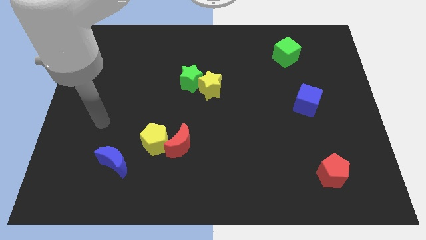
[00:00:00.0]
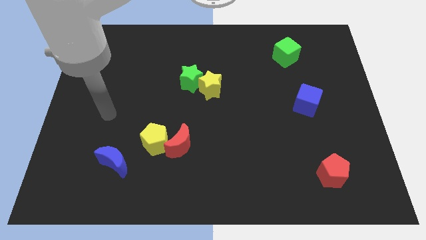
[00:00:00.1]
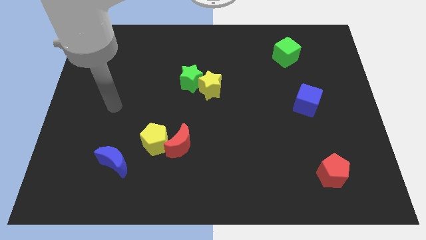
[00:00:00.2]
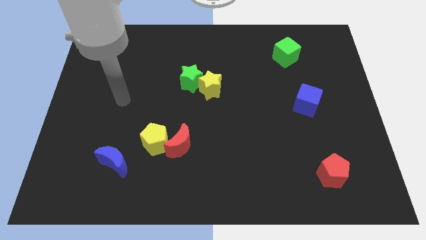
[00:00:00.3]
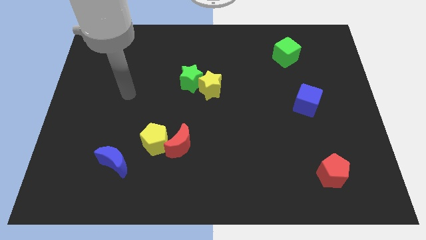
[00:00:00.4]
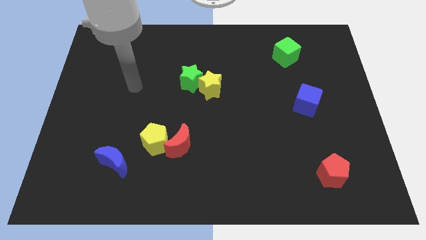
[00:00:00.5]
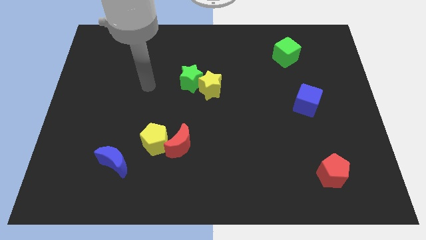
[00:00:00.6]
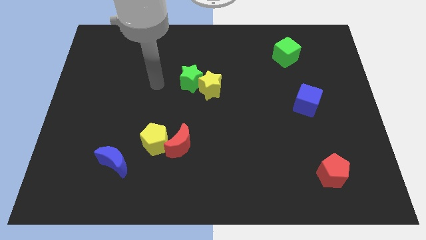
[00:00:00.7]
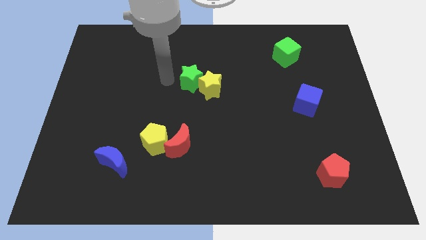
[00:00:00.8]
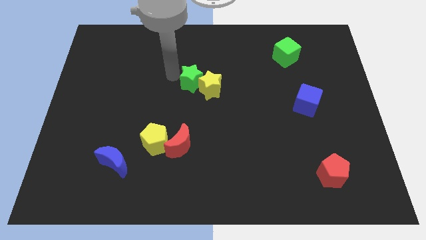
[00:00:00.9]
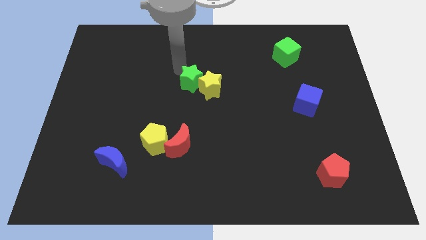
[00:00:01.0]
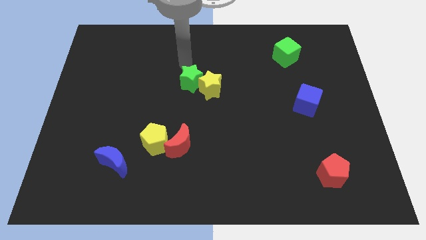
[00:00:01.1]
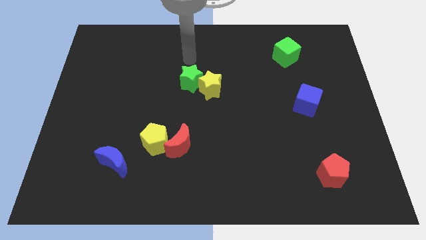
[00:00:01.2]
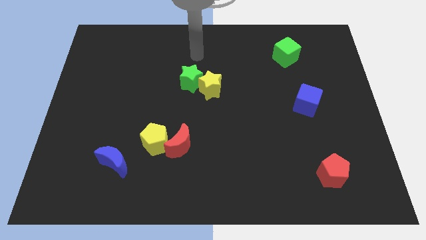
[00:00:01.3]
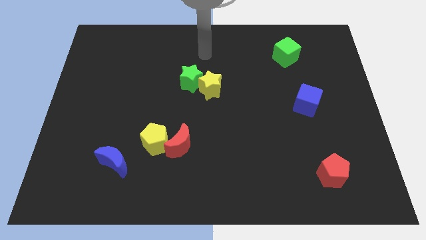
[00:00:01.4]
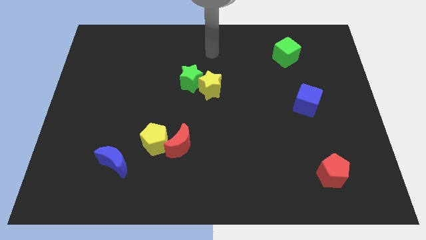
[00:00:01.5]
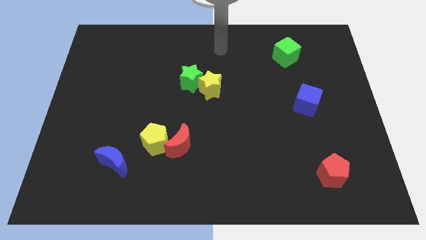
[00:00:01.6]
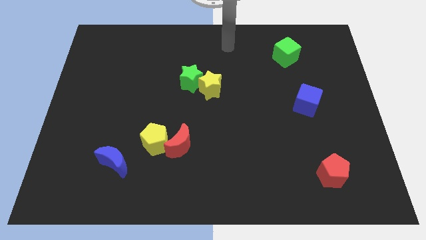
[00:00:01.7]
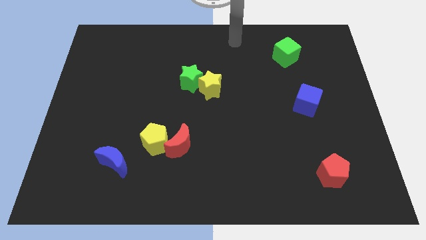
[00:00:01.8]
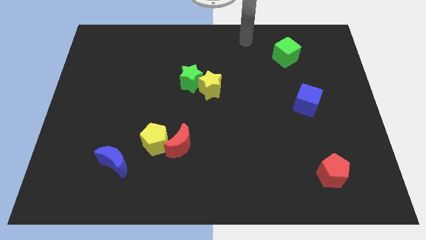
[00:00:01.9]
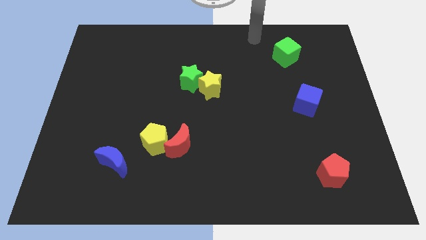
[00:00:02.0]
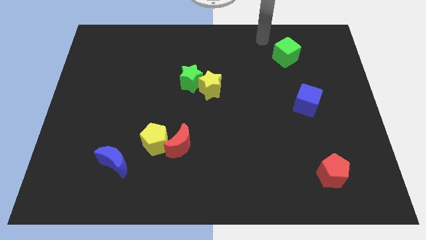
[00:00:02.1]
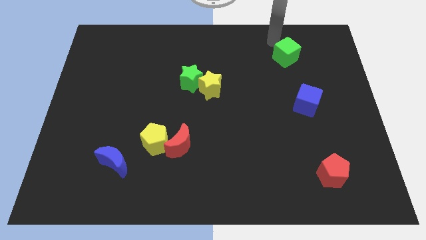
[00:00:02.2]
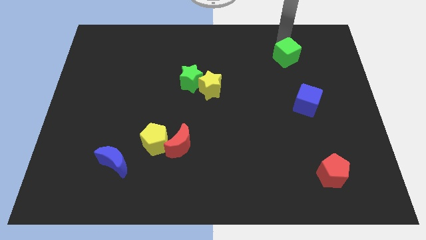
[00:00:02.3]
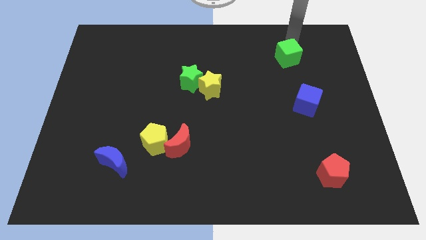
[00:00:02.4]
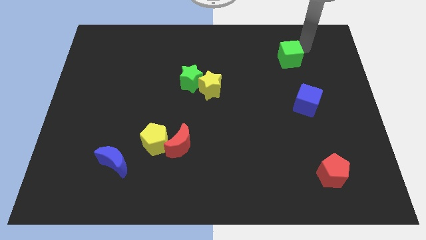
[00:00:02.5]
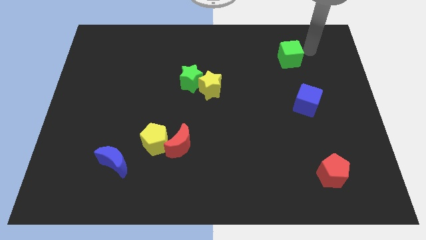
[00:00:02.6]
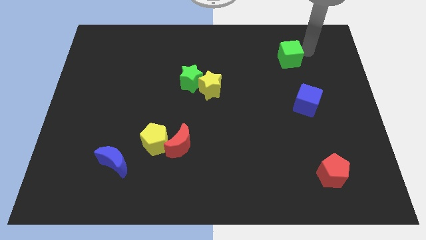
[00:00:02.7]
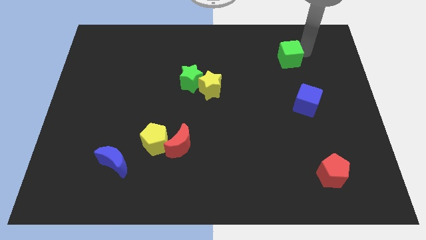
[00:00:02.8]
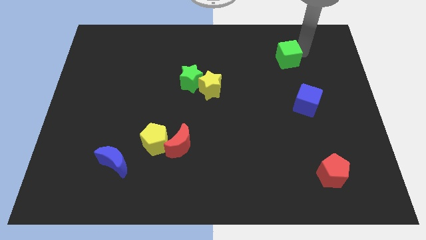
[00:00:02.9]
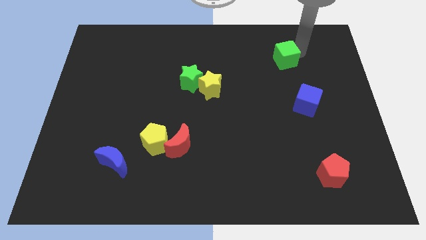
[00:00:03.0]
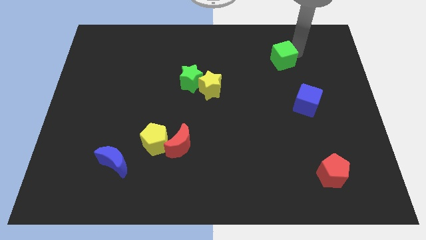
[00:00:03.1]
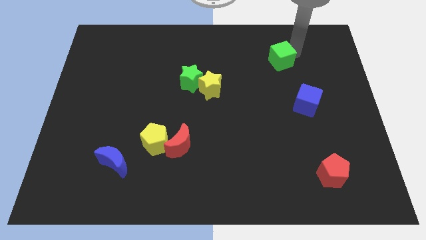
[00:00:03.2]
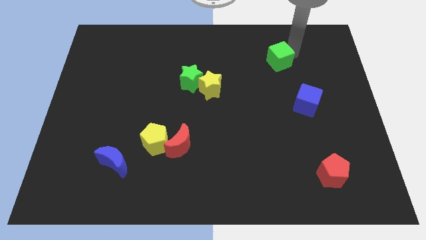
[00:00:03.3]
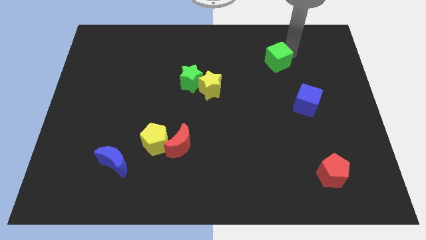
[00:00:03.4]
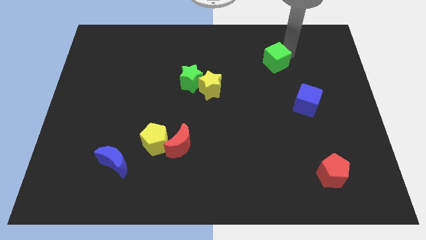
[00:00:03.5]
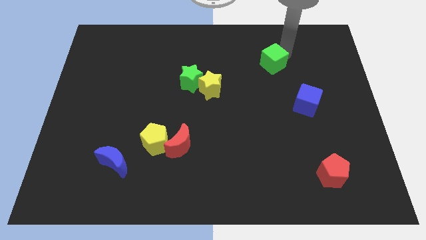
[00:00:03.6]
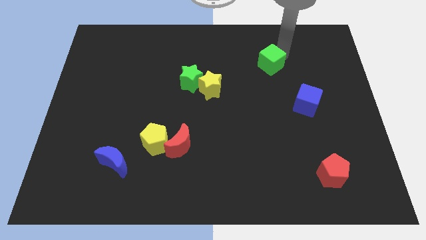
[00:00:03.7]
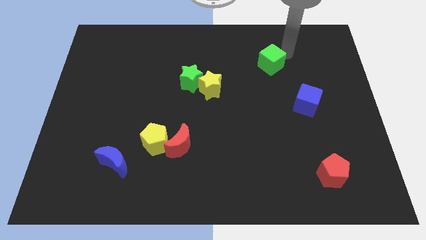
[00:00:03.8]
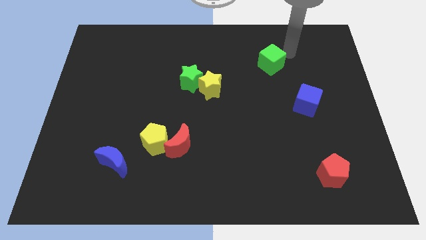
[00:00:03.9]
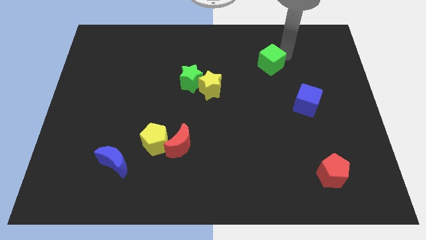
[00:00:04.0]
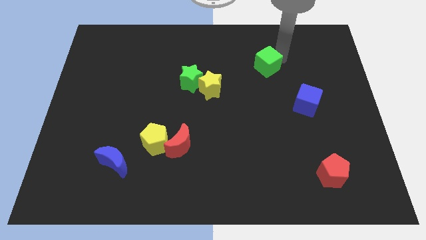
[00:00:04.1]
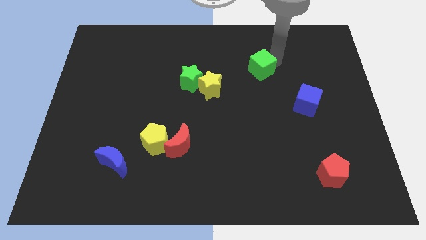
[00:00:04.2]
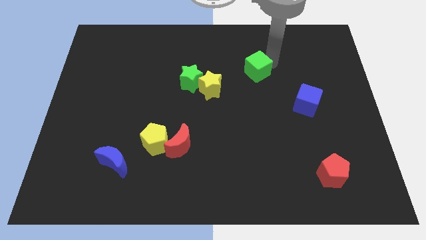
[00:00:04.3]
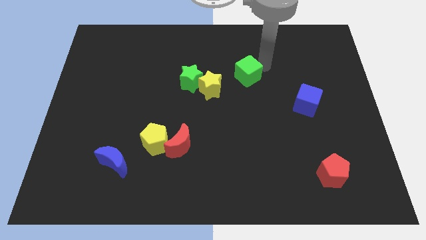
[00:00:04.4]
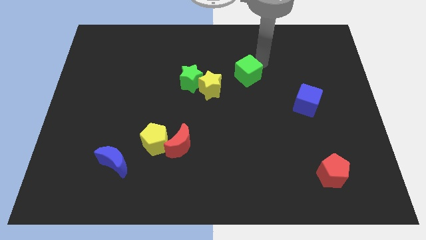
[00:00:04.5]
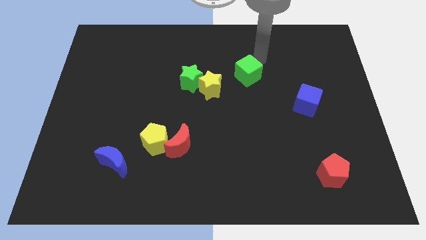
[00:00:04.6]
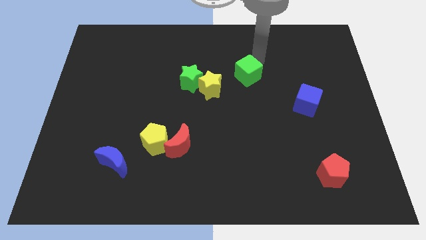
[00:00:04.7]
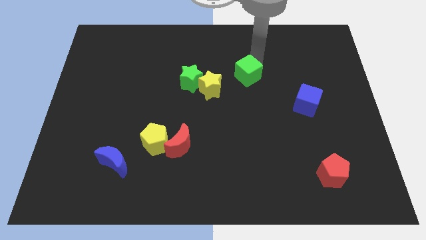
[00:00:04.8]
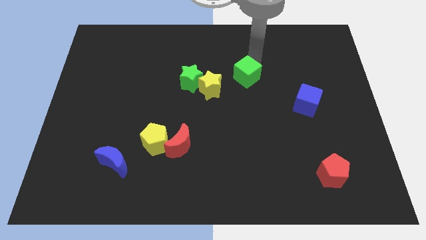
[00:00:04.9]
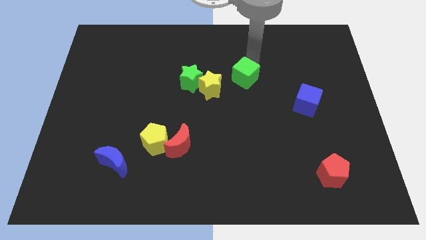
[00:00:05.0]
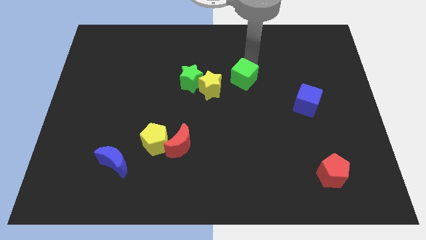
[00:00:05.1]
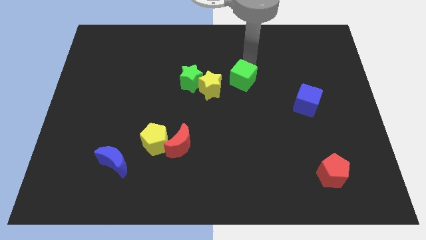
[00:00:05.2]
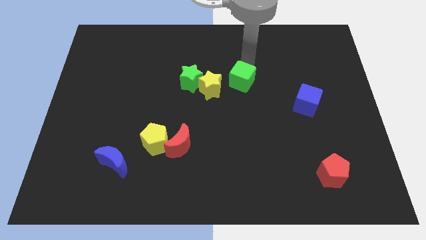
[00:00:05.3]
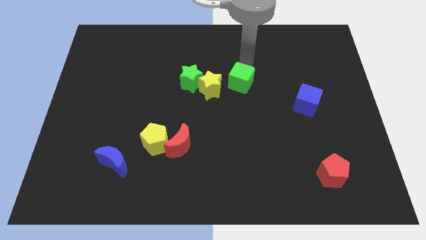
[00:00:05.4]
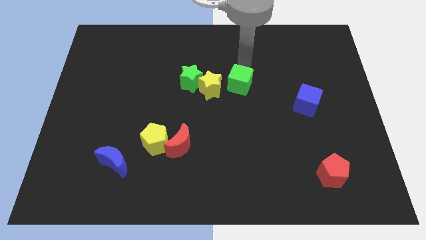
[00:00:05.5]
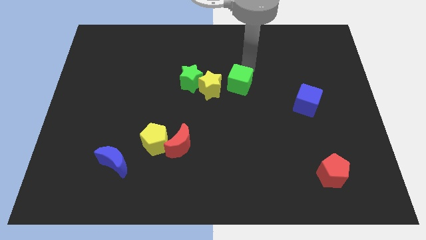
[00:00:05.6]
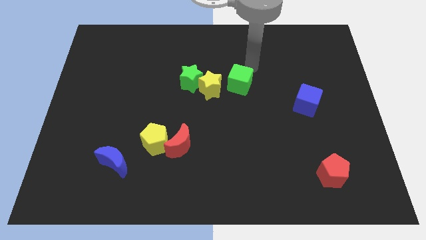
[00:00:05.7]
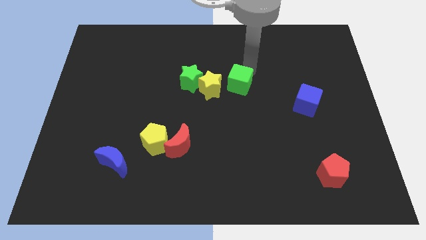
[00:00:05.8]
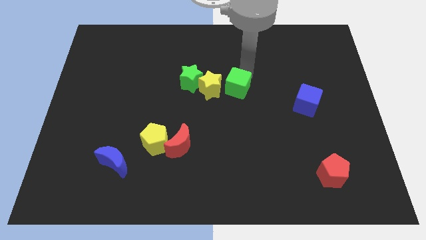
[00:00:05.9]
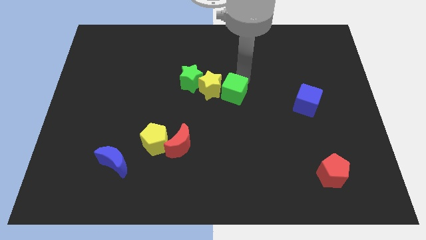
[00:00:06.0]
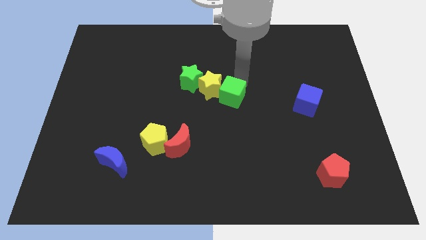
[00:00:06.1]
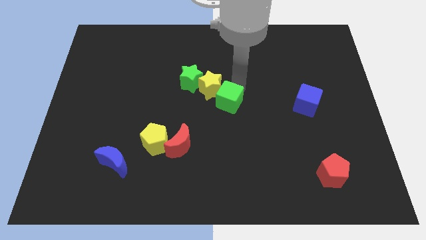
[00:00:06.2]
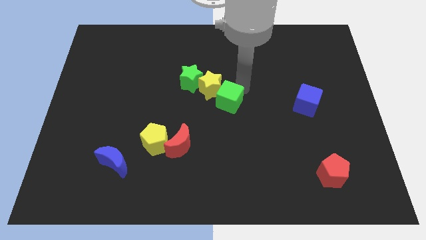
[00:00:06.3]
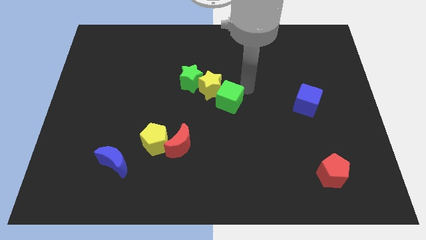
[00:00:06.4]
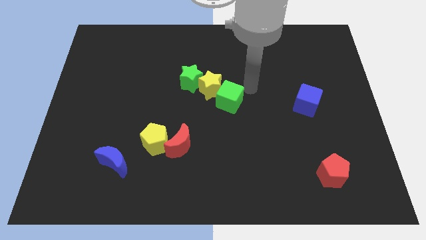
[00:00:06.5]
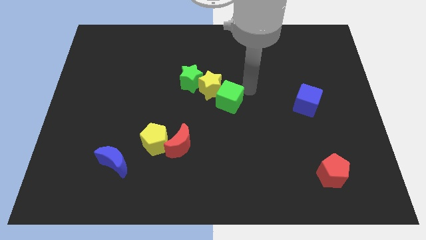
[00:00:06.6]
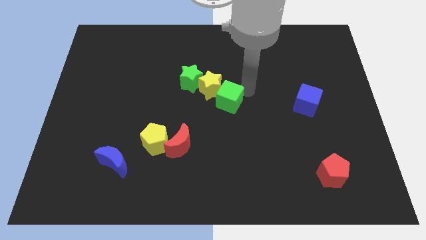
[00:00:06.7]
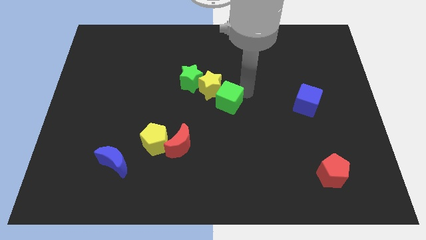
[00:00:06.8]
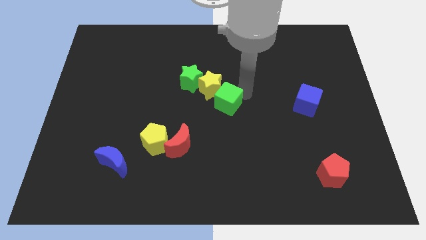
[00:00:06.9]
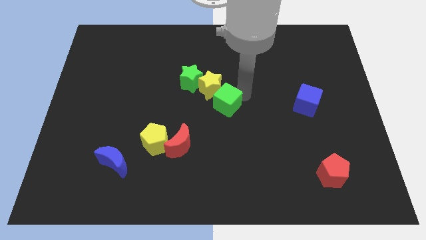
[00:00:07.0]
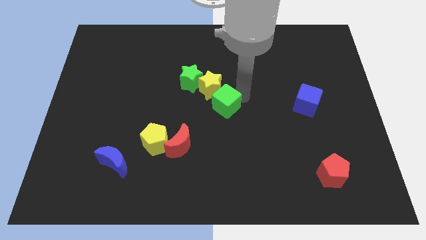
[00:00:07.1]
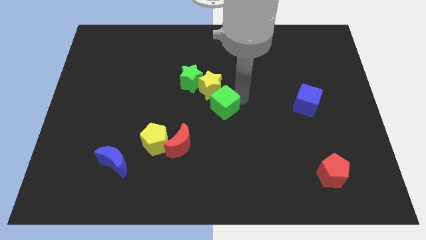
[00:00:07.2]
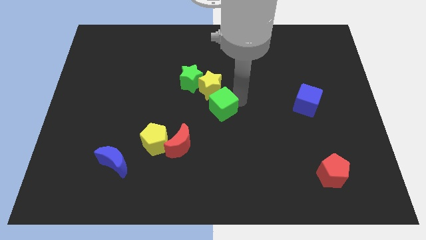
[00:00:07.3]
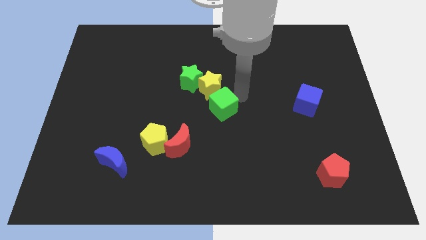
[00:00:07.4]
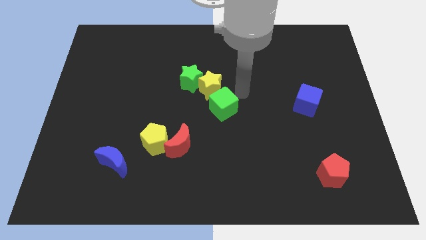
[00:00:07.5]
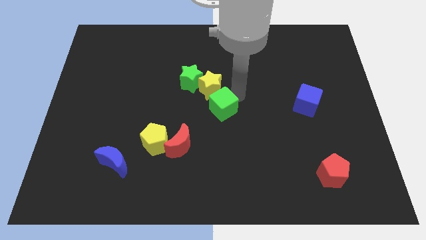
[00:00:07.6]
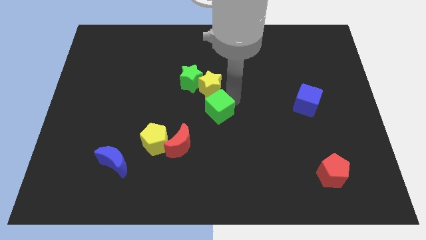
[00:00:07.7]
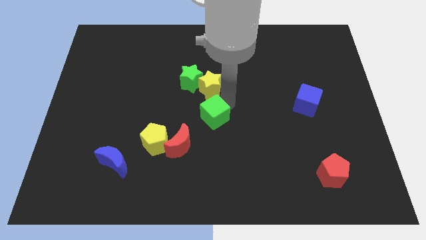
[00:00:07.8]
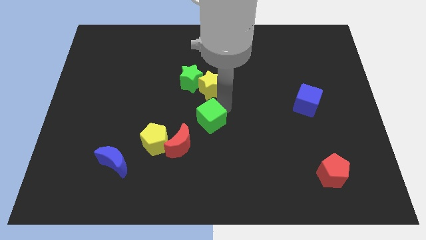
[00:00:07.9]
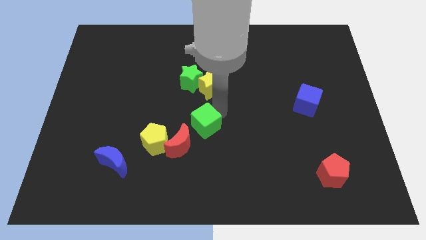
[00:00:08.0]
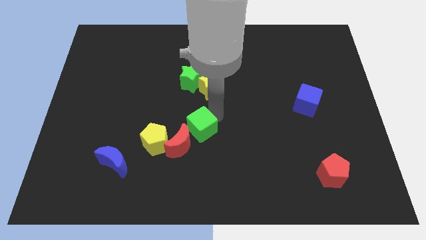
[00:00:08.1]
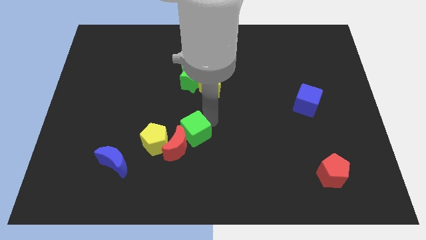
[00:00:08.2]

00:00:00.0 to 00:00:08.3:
push the green cube to the red moon
